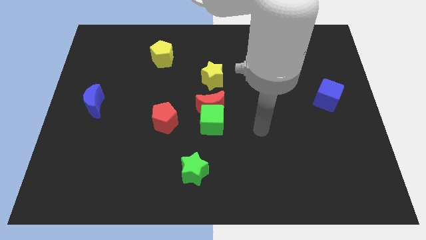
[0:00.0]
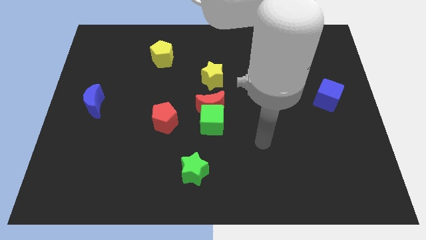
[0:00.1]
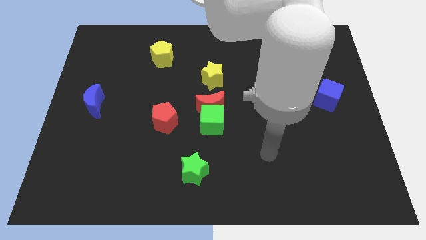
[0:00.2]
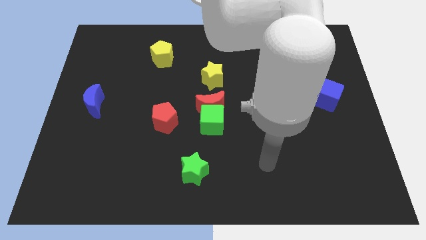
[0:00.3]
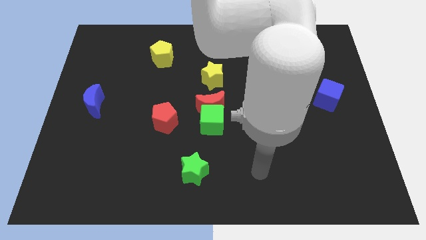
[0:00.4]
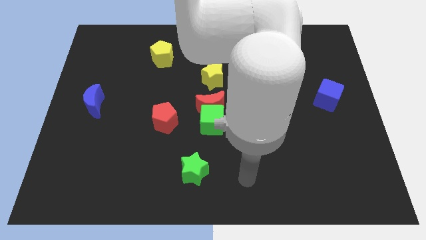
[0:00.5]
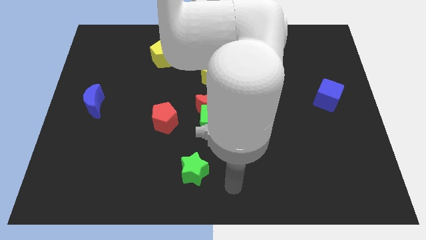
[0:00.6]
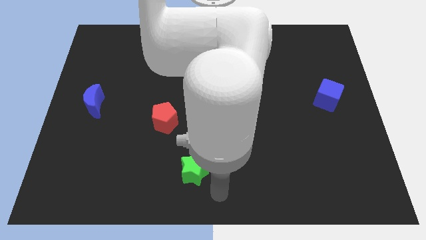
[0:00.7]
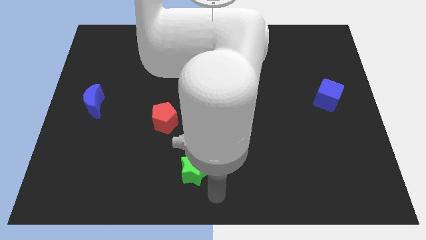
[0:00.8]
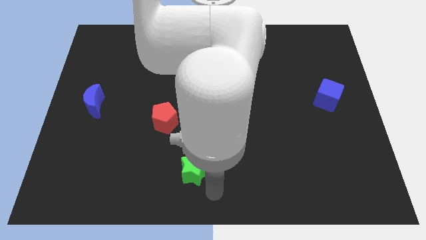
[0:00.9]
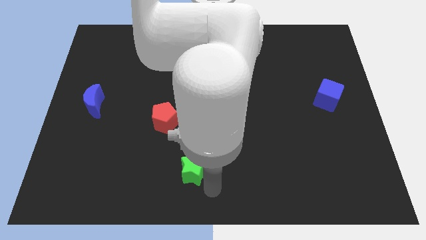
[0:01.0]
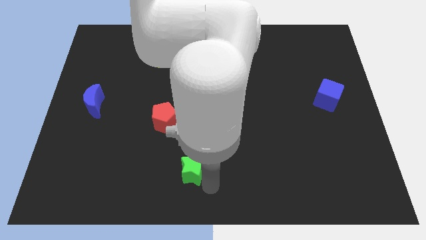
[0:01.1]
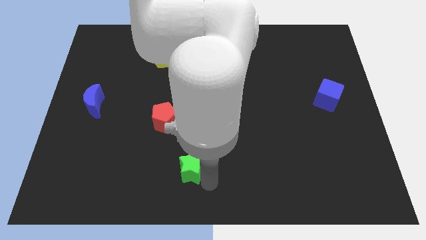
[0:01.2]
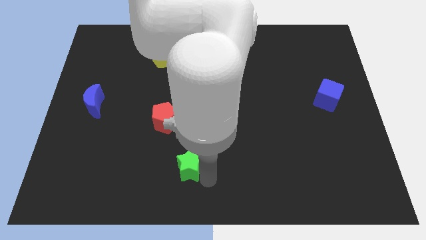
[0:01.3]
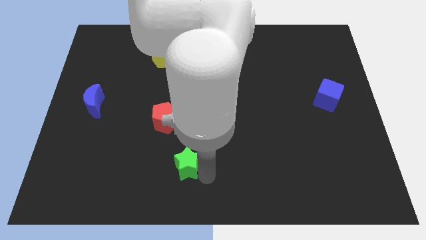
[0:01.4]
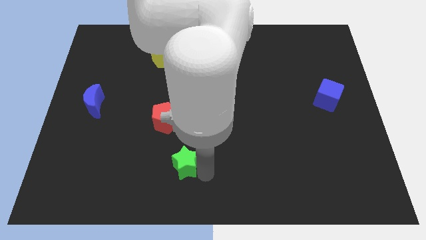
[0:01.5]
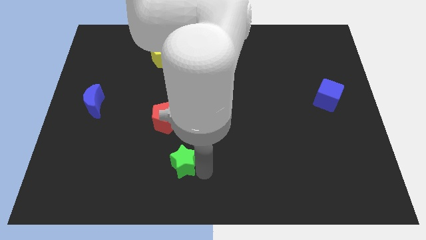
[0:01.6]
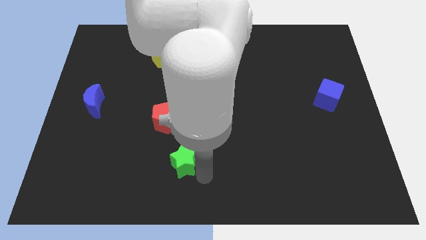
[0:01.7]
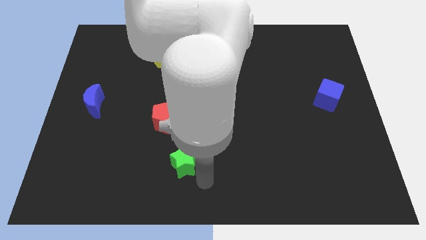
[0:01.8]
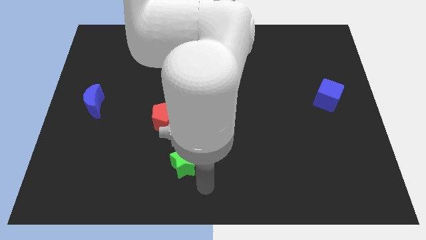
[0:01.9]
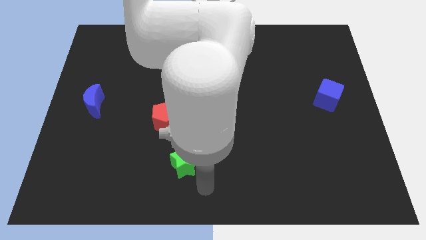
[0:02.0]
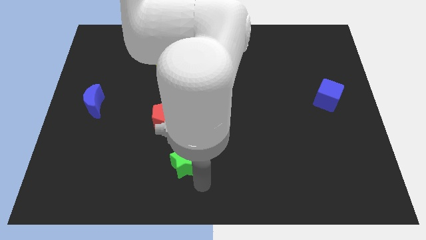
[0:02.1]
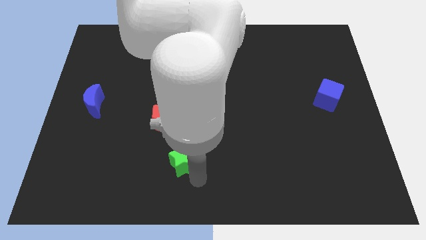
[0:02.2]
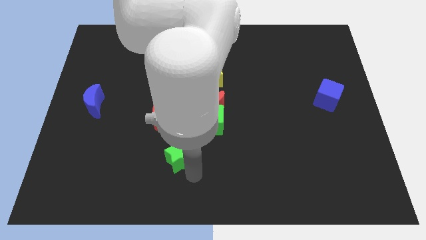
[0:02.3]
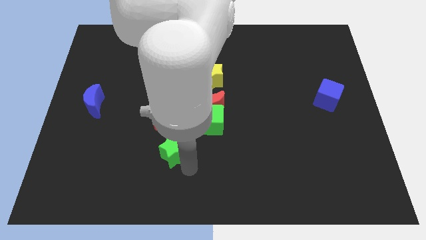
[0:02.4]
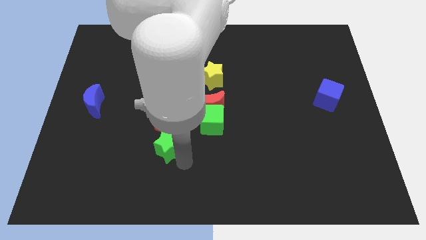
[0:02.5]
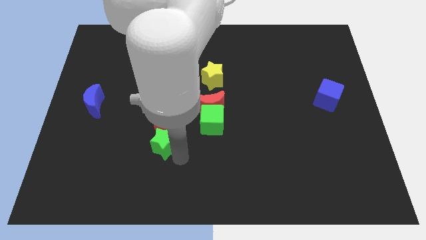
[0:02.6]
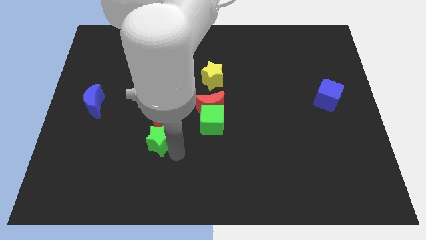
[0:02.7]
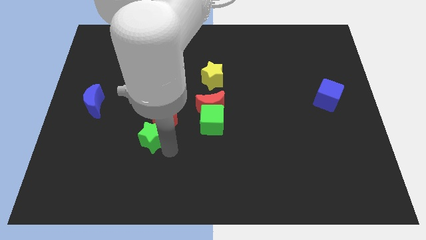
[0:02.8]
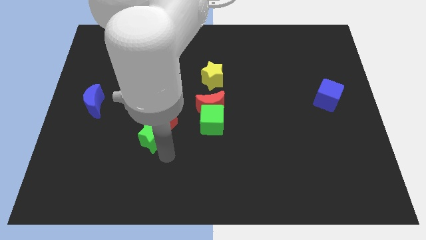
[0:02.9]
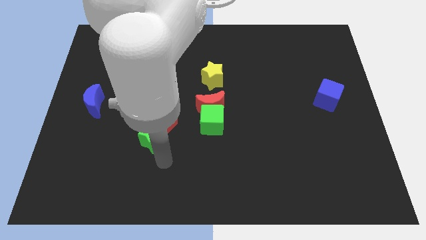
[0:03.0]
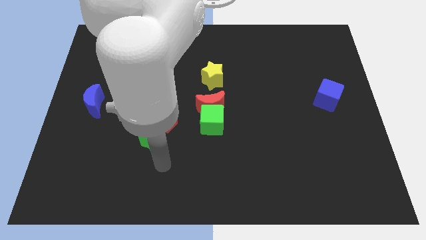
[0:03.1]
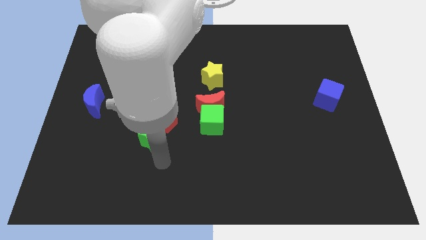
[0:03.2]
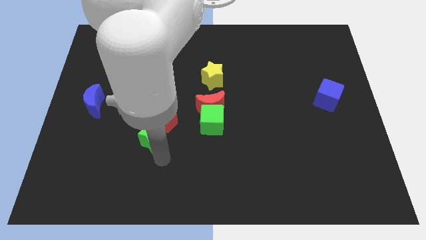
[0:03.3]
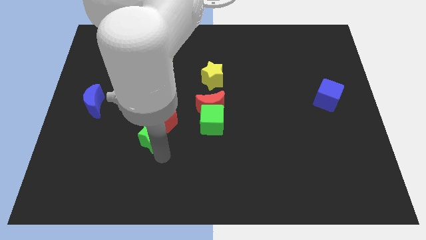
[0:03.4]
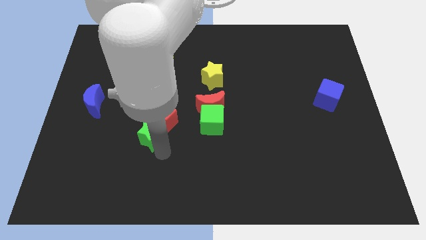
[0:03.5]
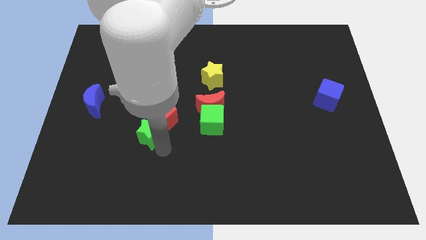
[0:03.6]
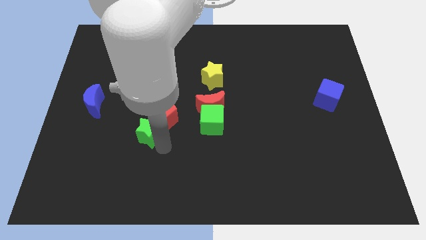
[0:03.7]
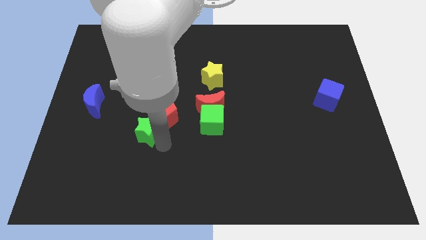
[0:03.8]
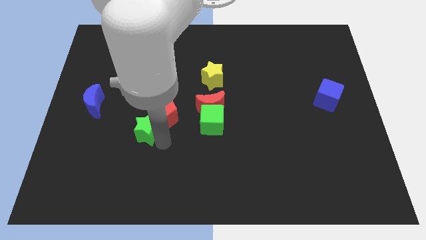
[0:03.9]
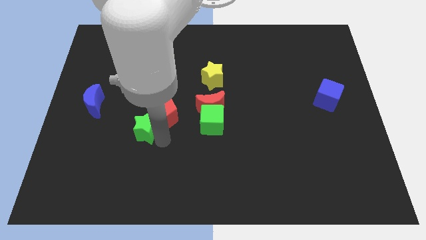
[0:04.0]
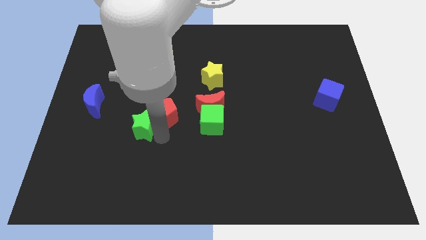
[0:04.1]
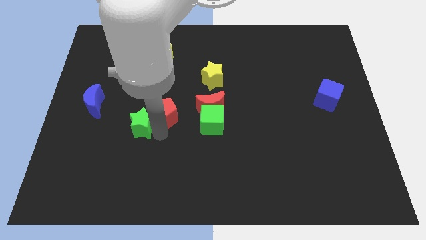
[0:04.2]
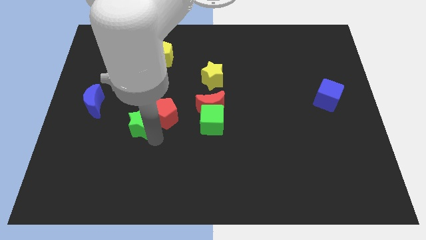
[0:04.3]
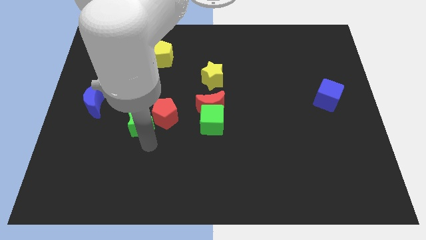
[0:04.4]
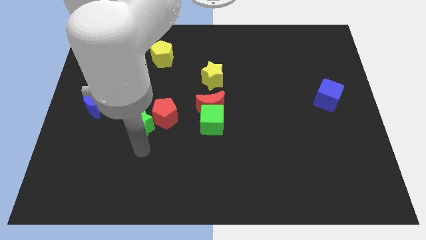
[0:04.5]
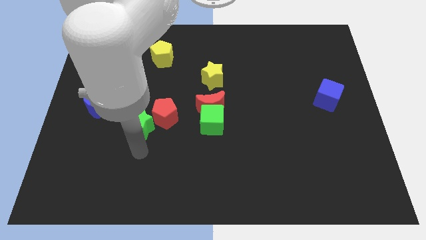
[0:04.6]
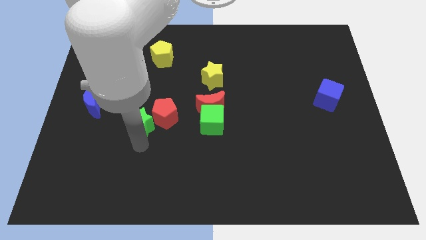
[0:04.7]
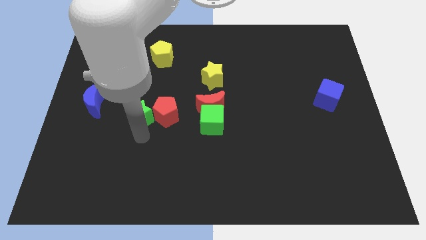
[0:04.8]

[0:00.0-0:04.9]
put the green star diagonally up and to the left of the red pentagon

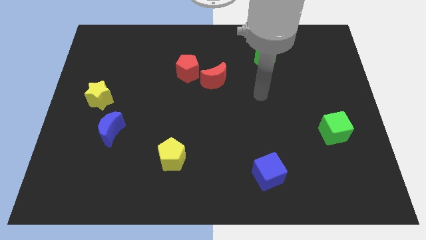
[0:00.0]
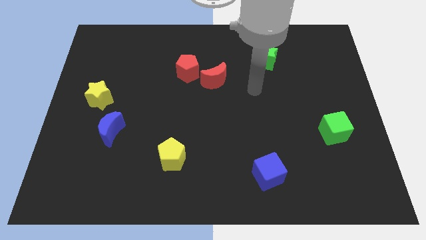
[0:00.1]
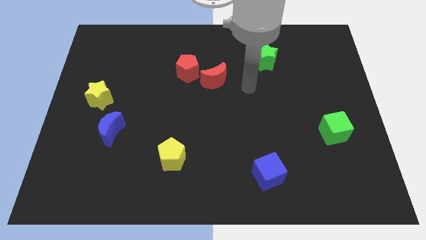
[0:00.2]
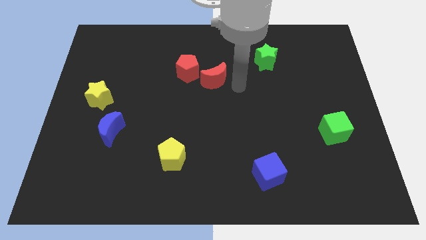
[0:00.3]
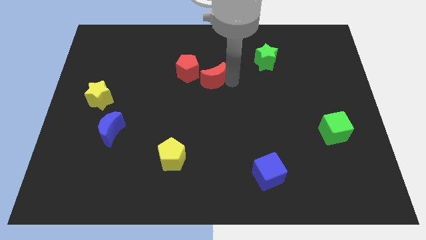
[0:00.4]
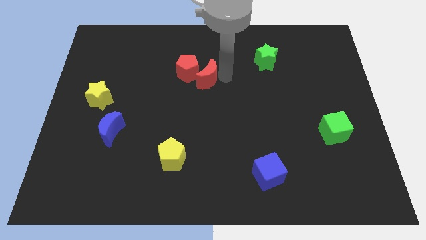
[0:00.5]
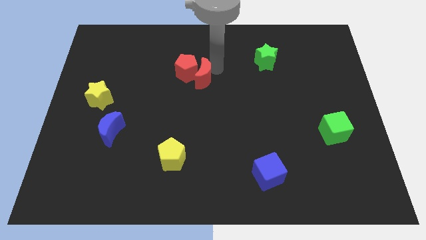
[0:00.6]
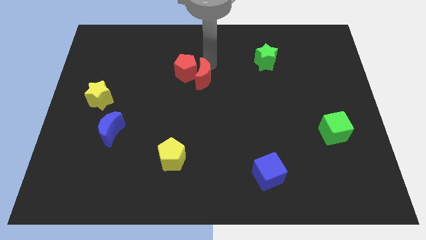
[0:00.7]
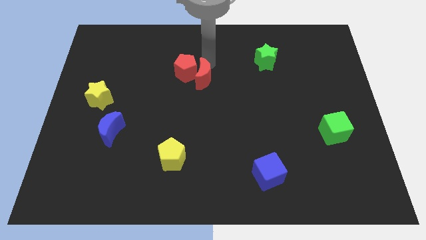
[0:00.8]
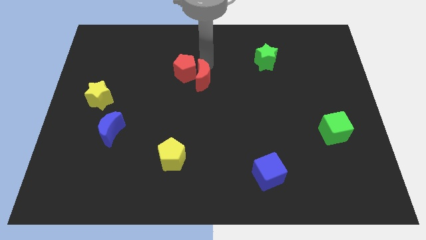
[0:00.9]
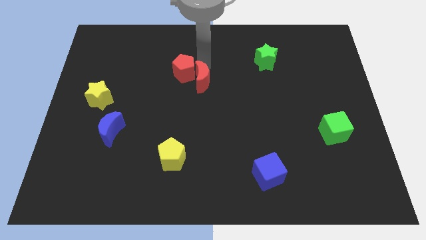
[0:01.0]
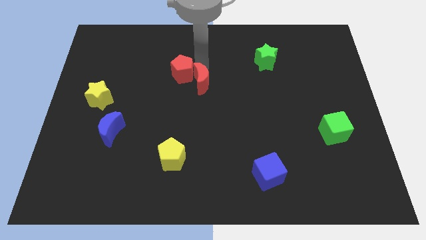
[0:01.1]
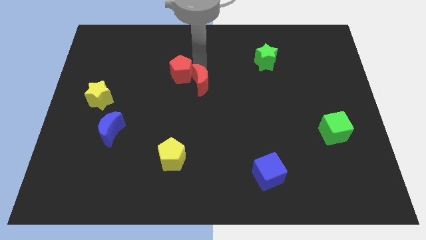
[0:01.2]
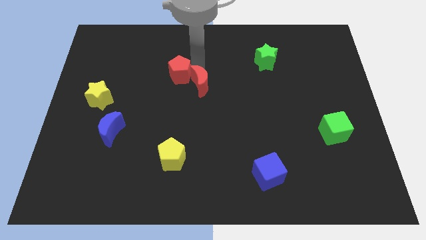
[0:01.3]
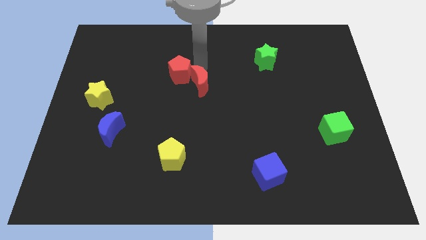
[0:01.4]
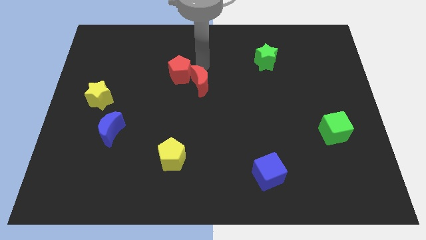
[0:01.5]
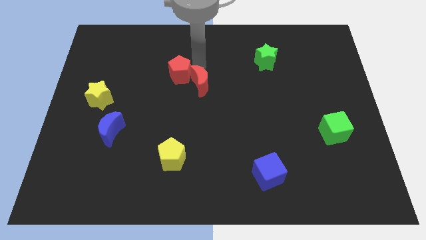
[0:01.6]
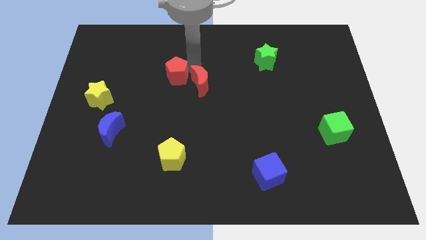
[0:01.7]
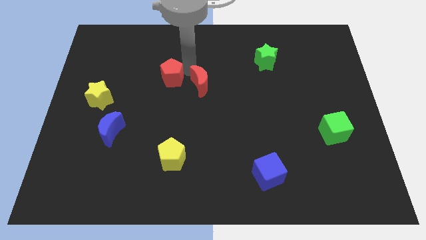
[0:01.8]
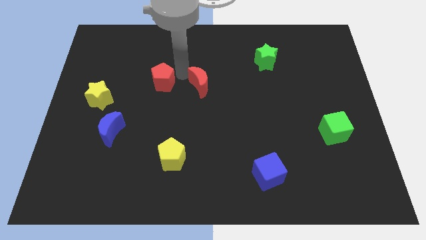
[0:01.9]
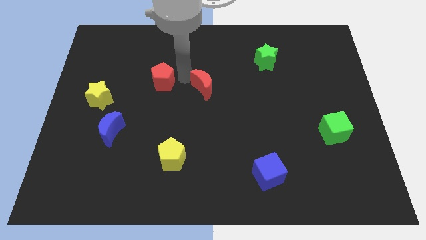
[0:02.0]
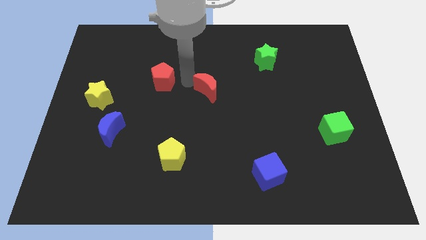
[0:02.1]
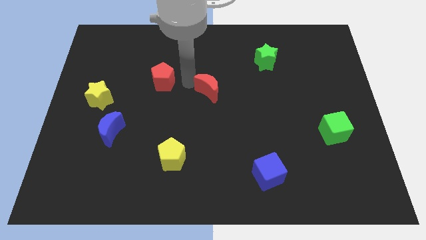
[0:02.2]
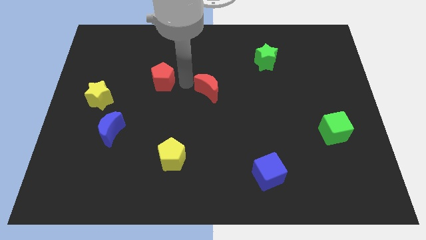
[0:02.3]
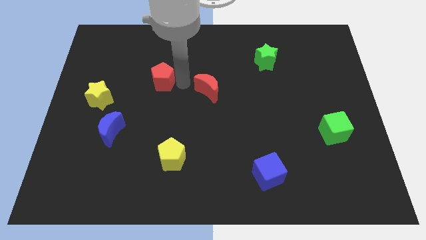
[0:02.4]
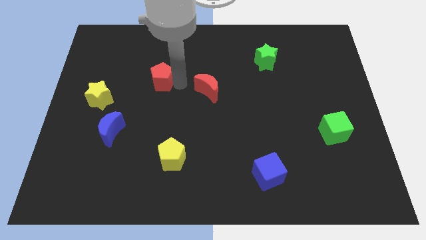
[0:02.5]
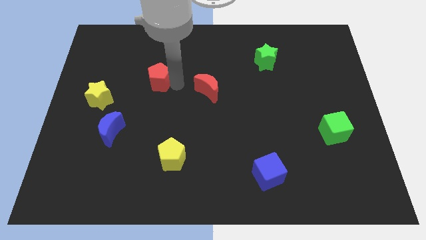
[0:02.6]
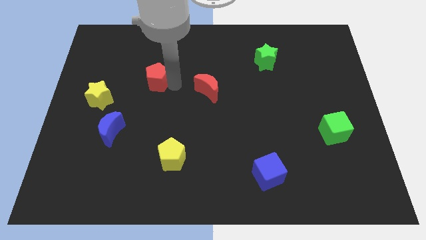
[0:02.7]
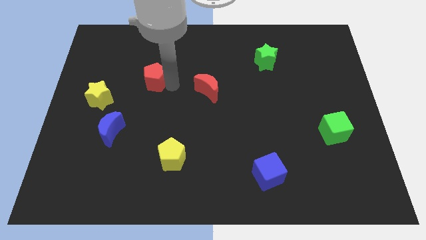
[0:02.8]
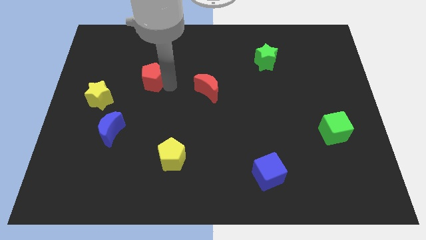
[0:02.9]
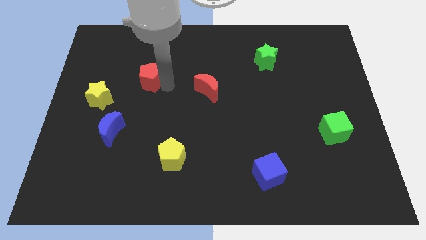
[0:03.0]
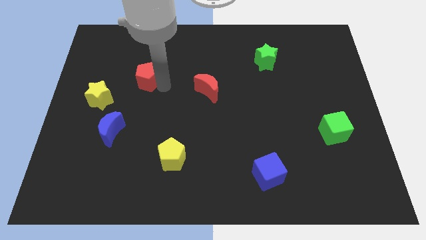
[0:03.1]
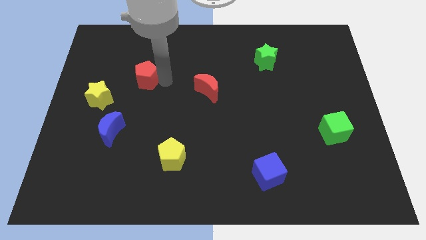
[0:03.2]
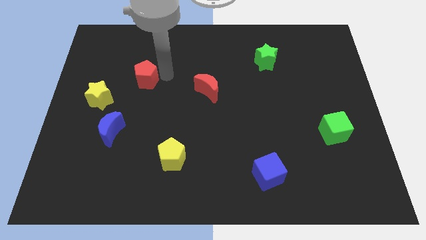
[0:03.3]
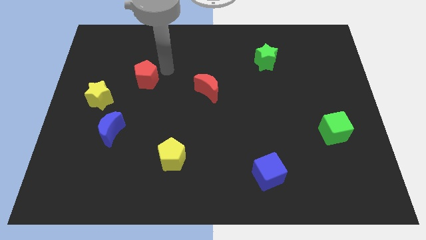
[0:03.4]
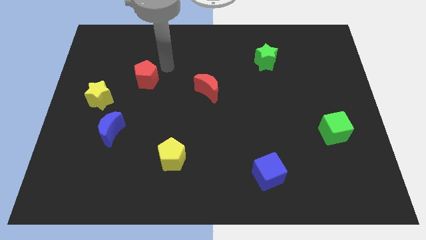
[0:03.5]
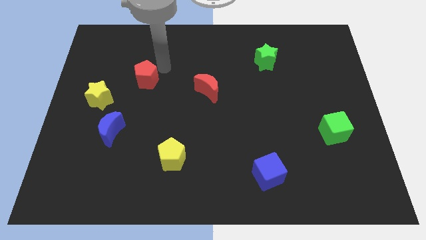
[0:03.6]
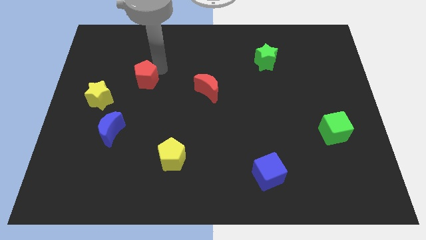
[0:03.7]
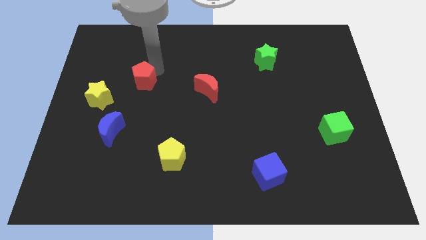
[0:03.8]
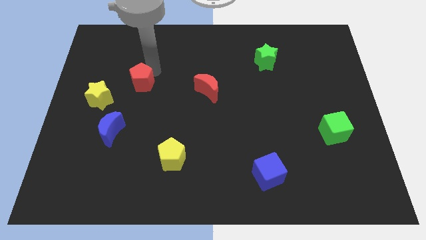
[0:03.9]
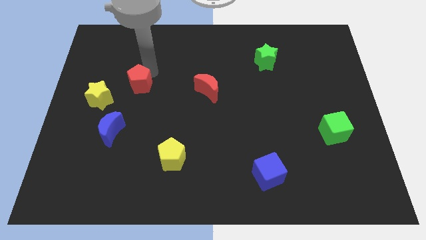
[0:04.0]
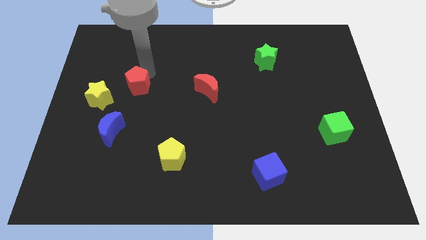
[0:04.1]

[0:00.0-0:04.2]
push the red pentagon to the top side of the blue moon
